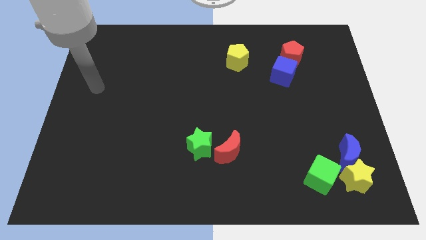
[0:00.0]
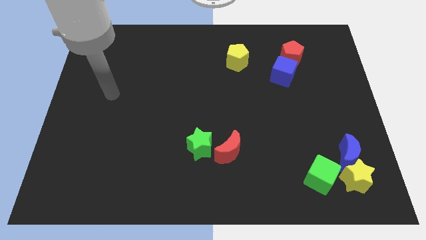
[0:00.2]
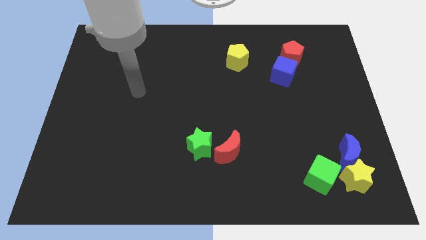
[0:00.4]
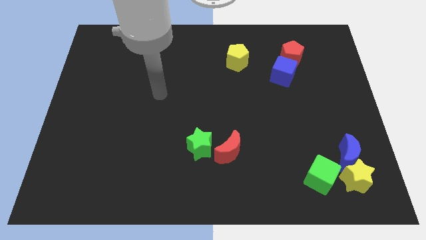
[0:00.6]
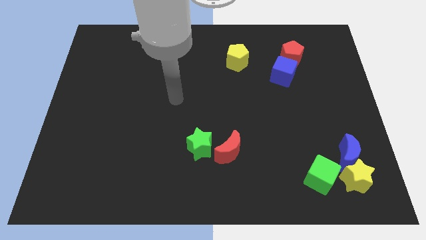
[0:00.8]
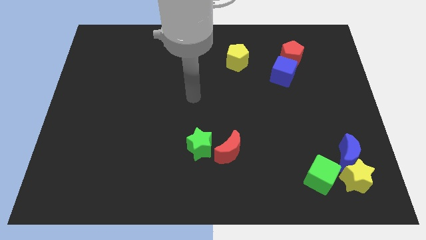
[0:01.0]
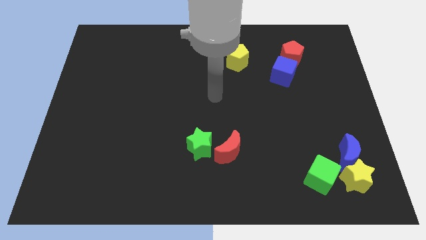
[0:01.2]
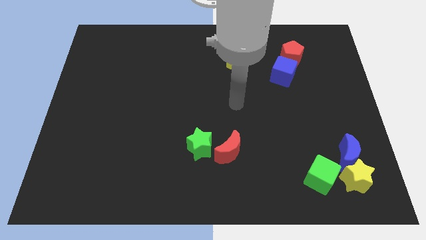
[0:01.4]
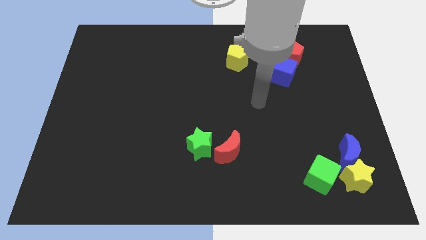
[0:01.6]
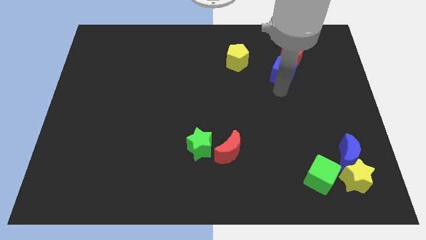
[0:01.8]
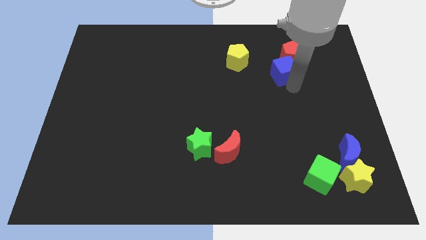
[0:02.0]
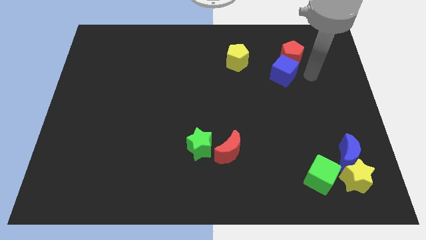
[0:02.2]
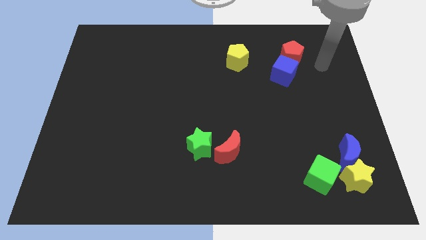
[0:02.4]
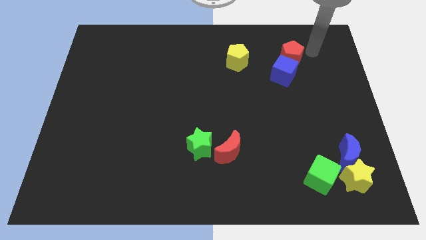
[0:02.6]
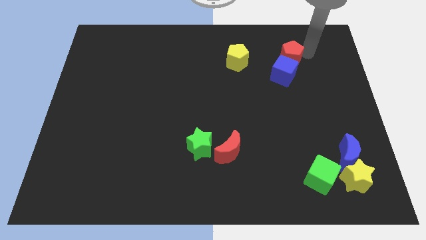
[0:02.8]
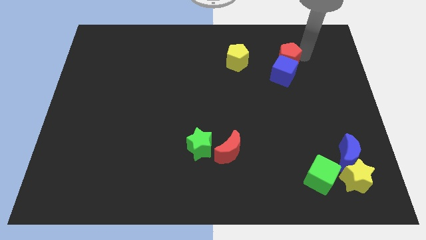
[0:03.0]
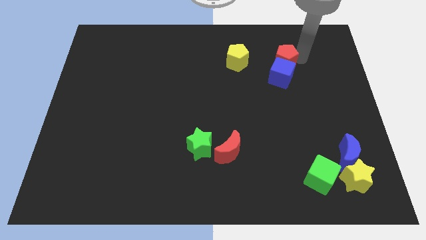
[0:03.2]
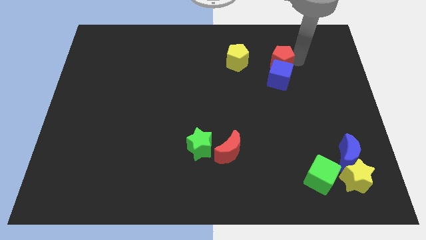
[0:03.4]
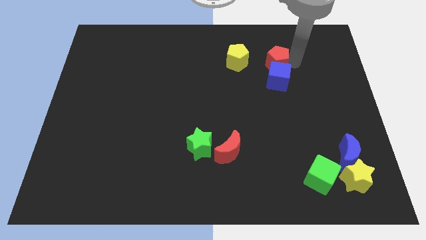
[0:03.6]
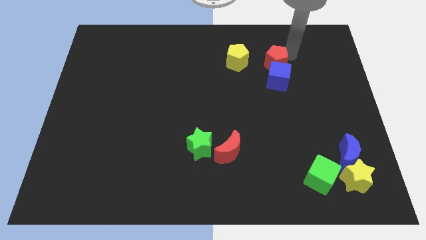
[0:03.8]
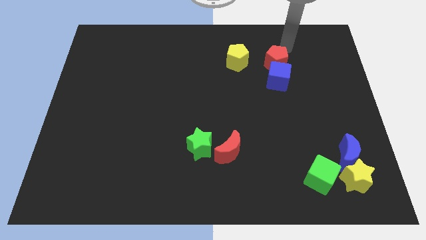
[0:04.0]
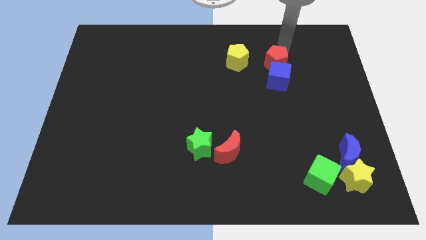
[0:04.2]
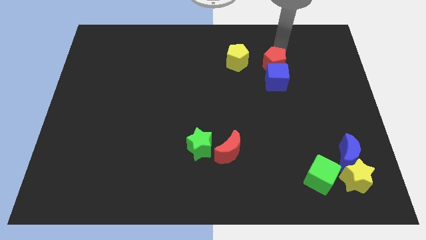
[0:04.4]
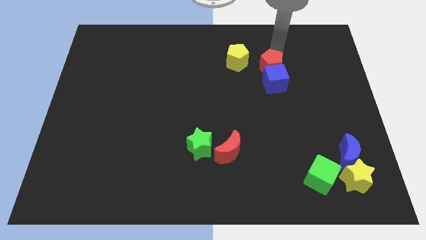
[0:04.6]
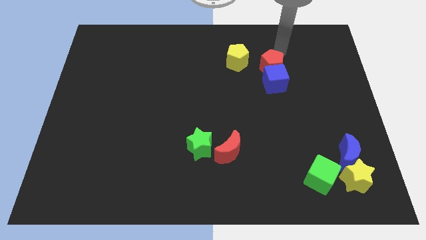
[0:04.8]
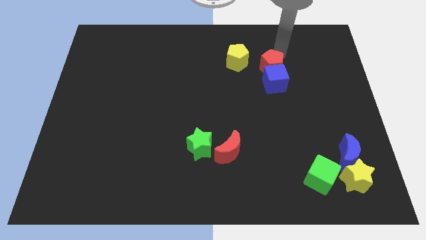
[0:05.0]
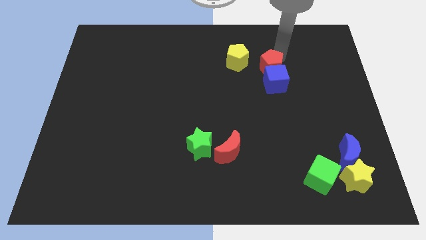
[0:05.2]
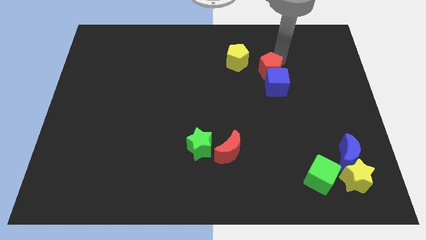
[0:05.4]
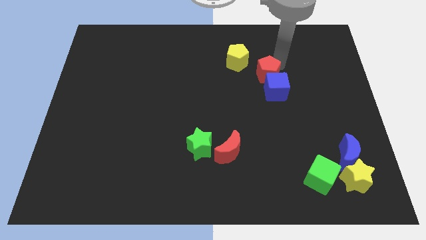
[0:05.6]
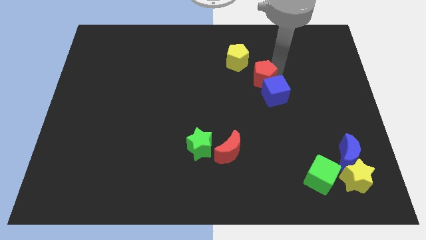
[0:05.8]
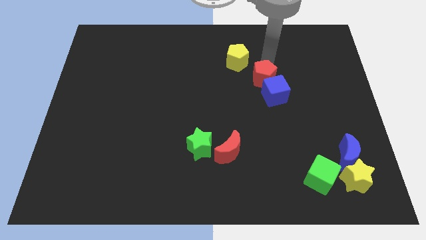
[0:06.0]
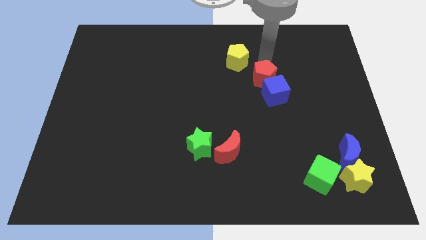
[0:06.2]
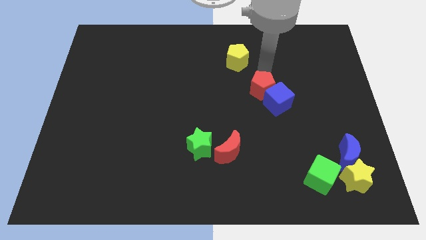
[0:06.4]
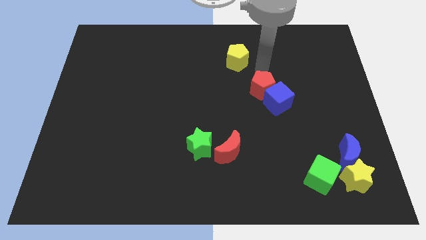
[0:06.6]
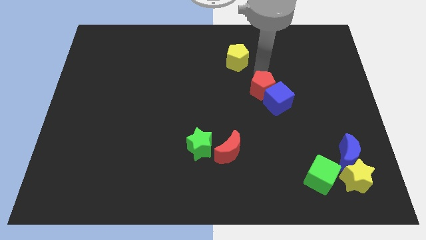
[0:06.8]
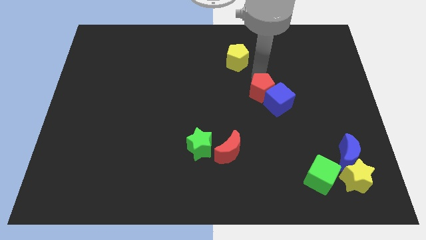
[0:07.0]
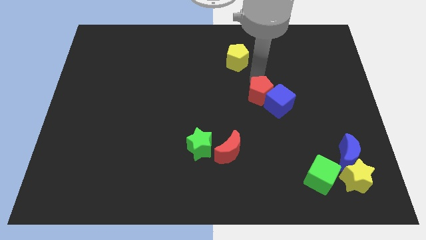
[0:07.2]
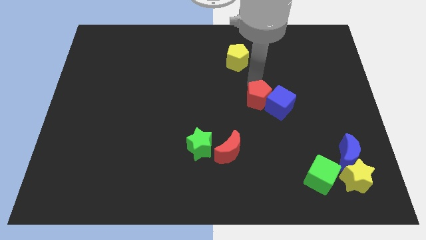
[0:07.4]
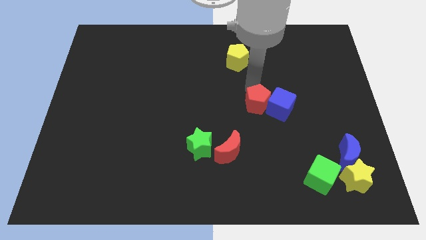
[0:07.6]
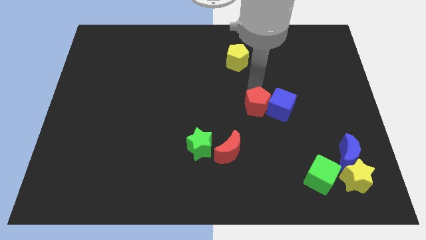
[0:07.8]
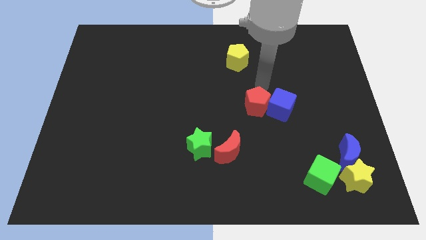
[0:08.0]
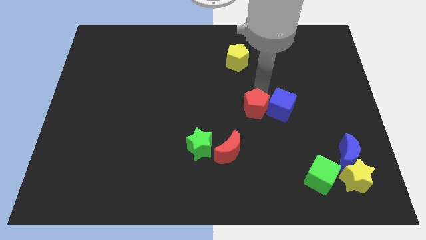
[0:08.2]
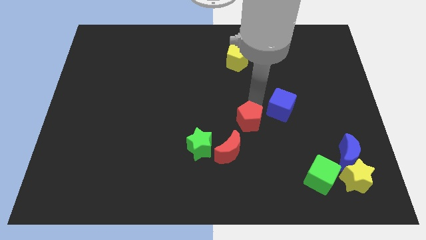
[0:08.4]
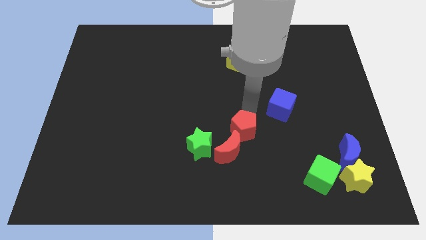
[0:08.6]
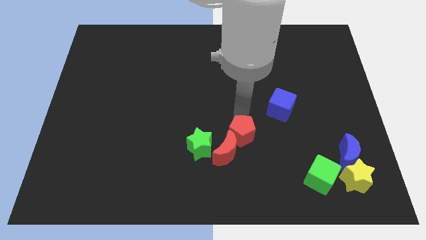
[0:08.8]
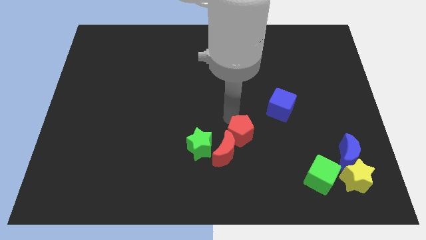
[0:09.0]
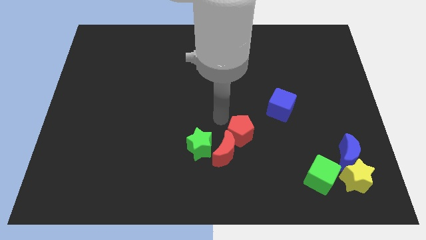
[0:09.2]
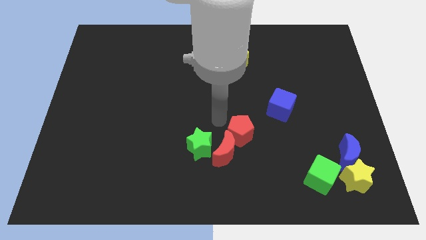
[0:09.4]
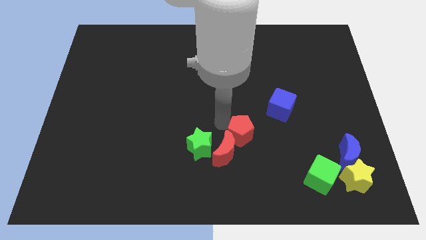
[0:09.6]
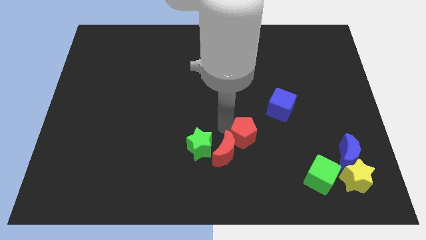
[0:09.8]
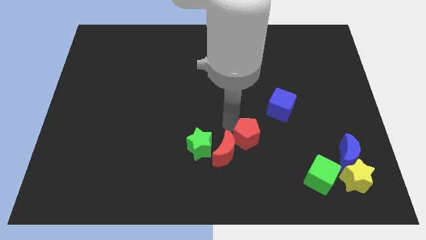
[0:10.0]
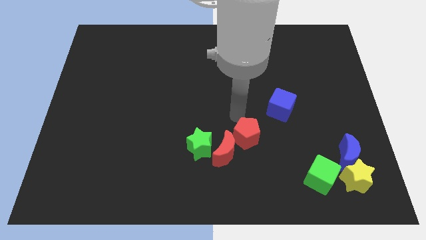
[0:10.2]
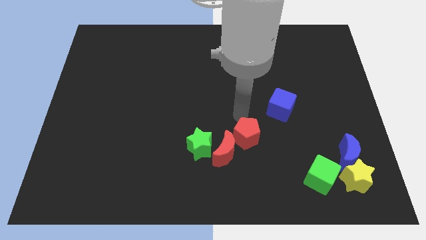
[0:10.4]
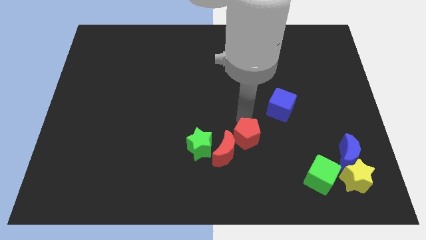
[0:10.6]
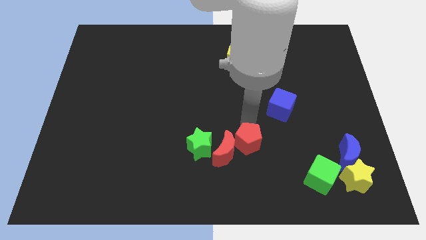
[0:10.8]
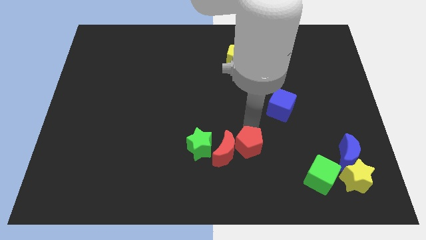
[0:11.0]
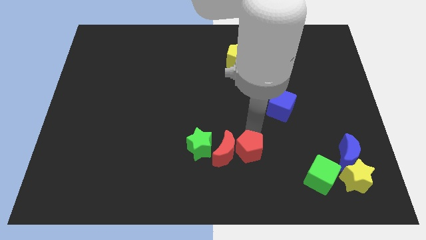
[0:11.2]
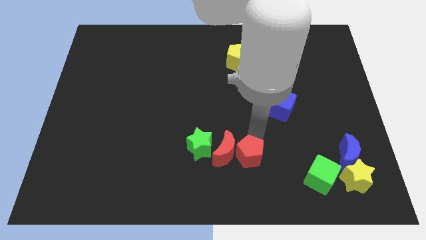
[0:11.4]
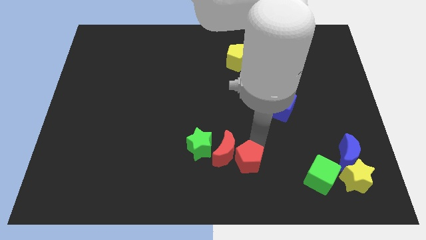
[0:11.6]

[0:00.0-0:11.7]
move the red pentagon to the bottom

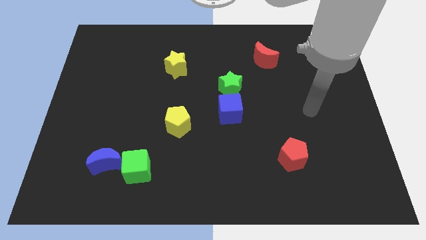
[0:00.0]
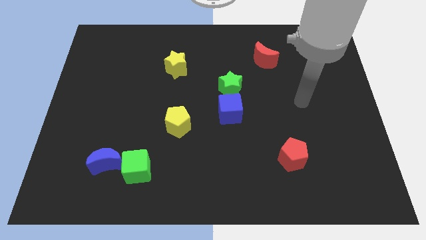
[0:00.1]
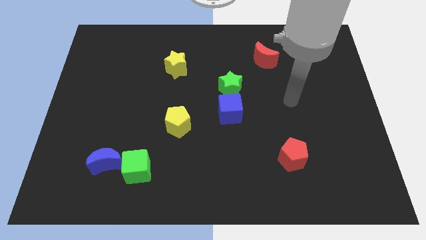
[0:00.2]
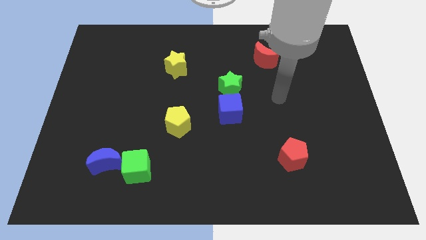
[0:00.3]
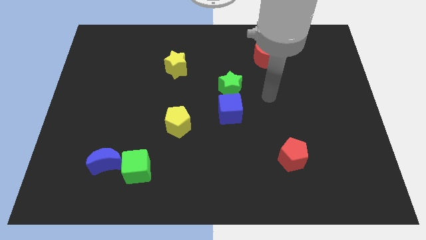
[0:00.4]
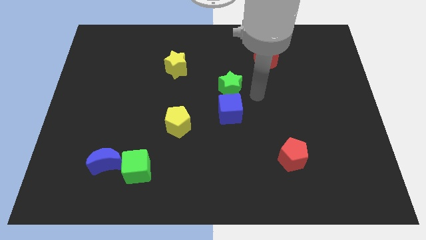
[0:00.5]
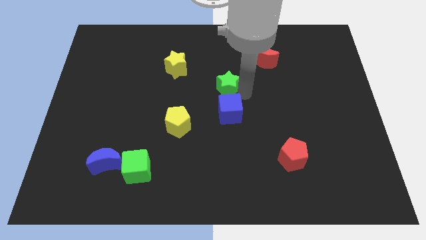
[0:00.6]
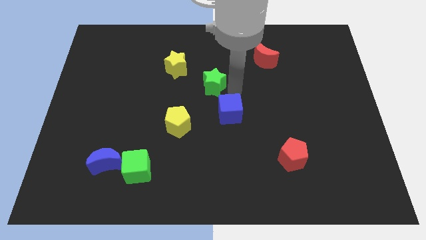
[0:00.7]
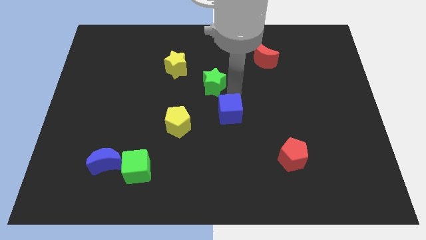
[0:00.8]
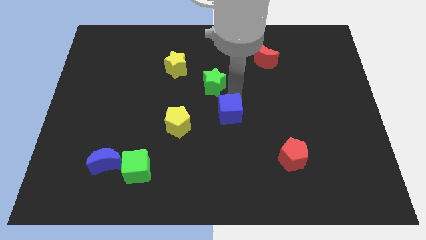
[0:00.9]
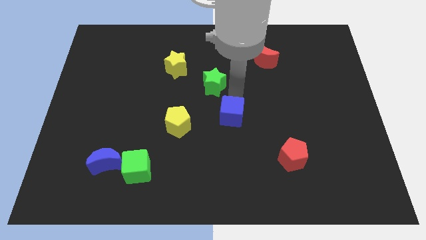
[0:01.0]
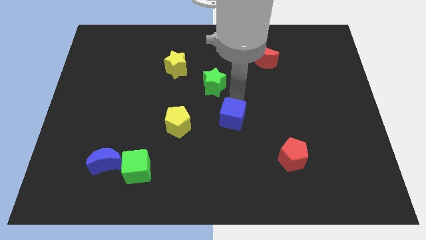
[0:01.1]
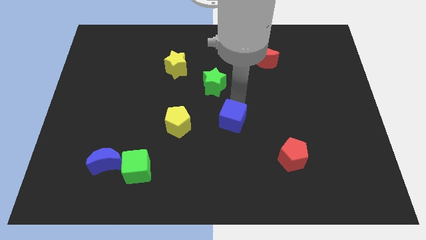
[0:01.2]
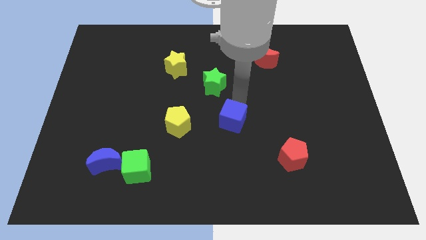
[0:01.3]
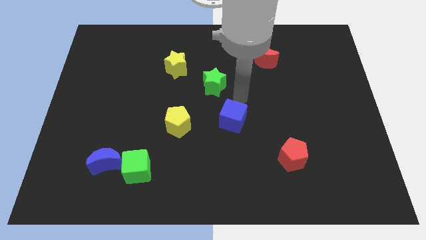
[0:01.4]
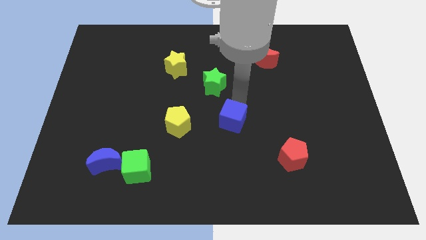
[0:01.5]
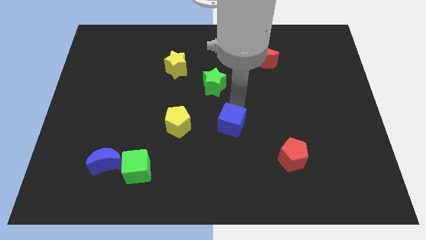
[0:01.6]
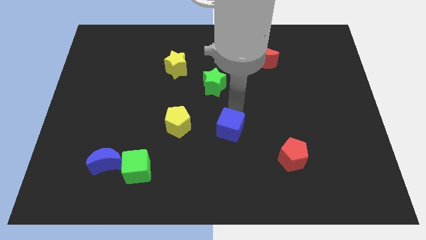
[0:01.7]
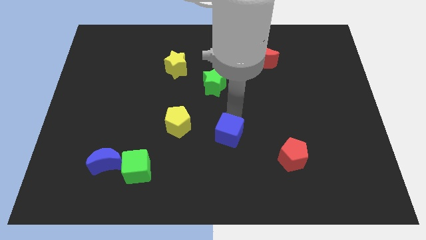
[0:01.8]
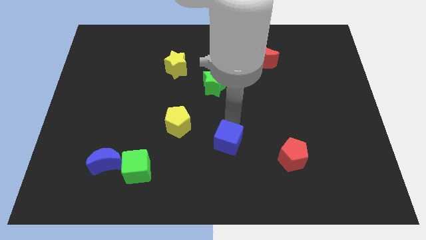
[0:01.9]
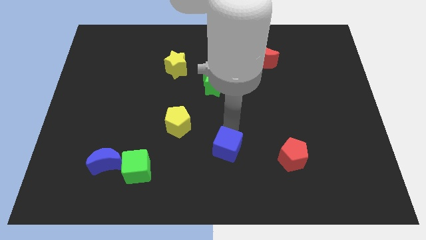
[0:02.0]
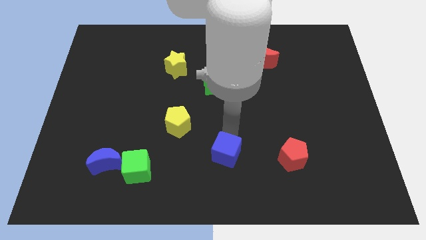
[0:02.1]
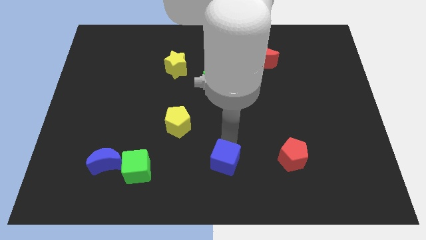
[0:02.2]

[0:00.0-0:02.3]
slide the blue cube to the bottom
